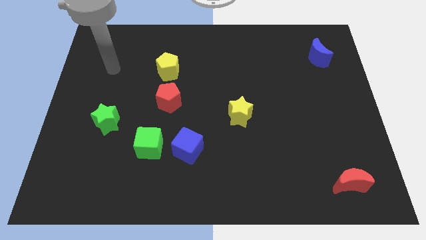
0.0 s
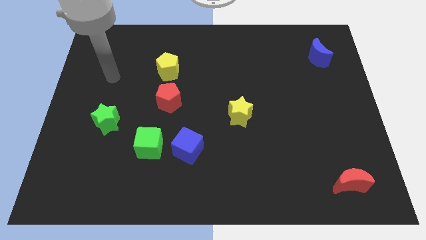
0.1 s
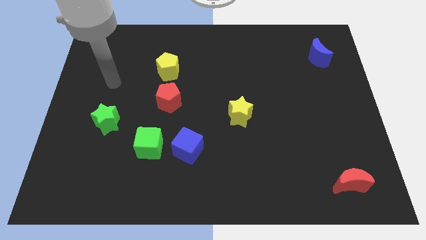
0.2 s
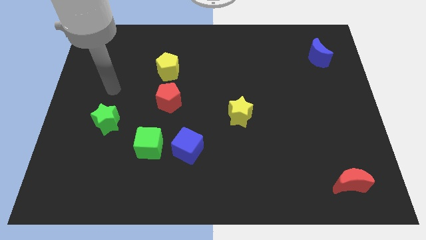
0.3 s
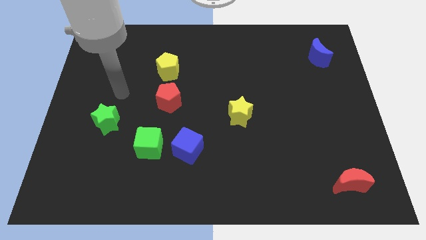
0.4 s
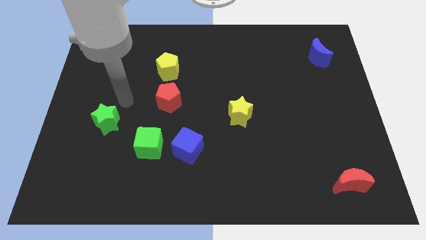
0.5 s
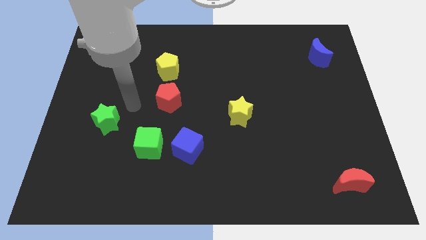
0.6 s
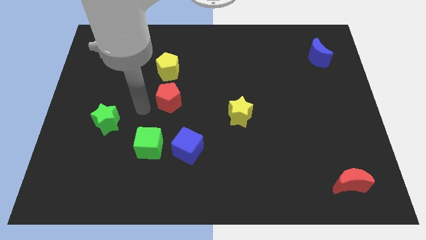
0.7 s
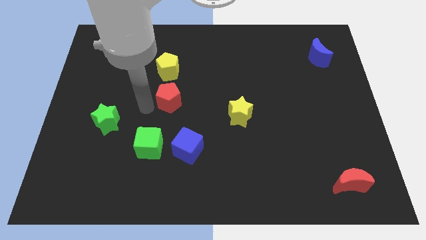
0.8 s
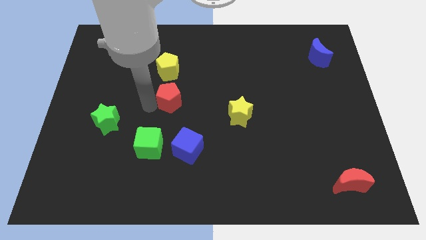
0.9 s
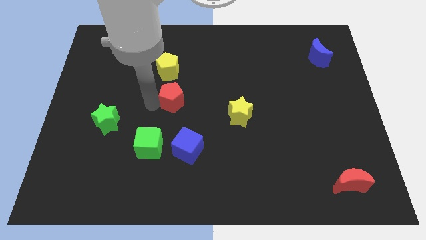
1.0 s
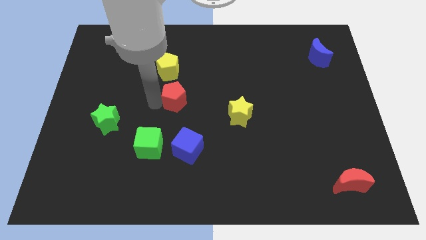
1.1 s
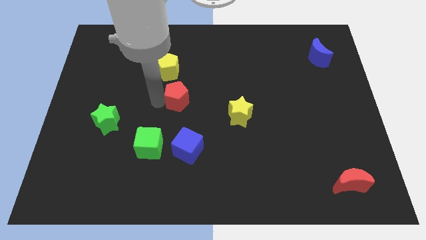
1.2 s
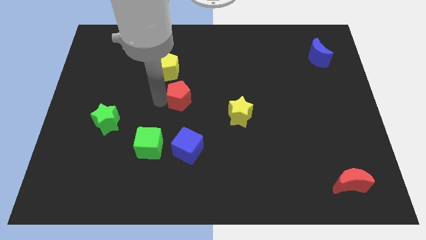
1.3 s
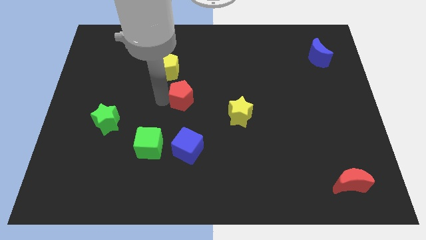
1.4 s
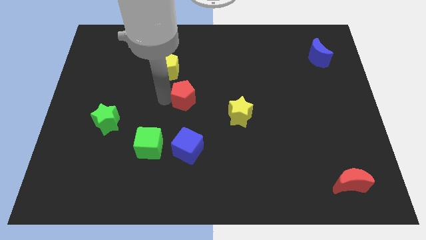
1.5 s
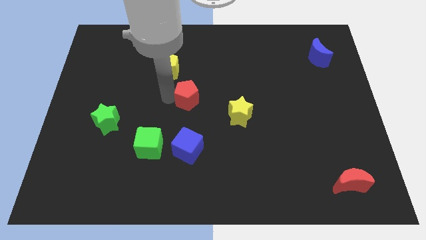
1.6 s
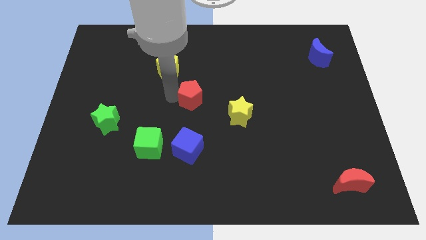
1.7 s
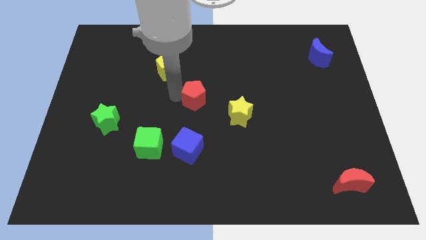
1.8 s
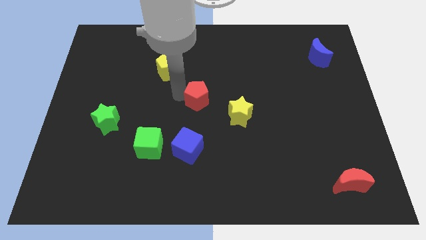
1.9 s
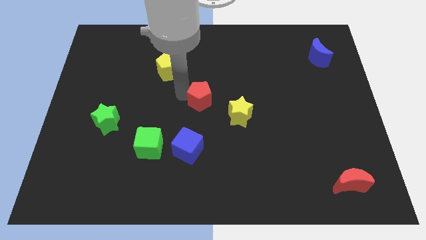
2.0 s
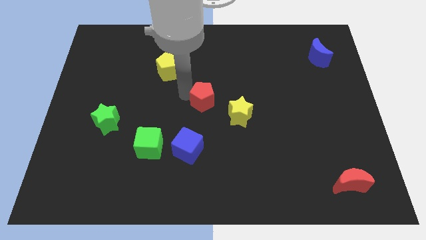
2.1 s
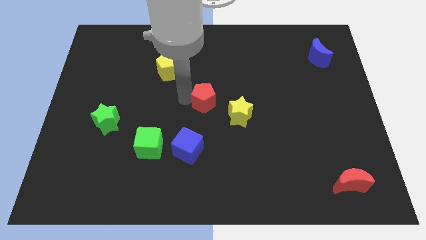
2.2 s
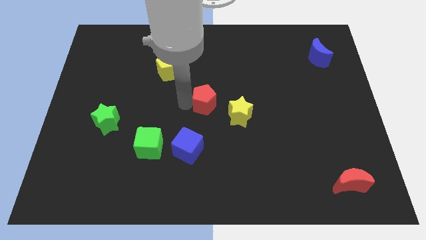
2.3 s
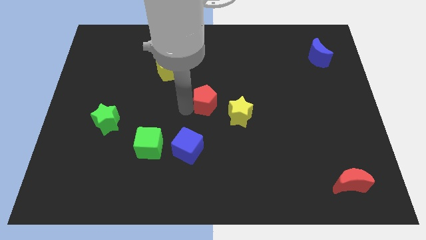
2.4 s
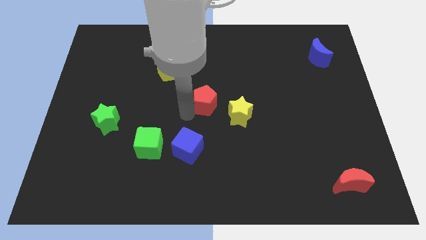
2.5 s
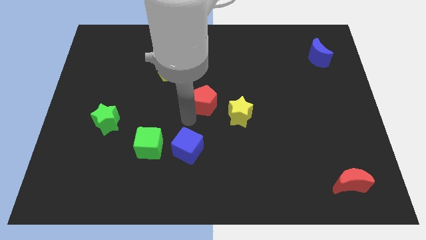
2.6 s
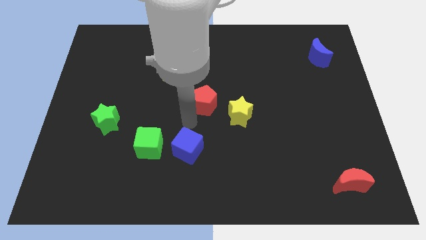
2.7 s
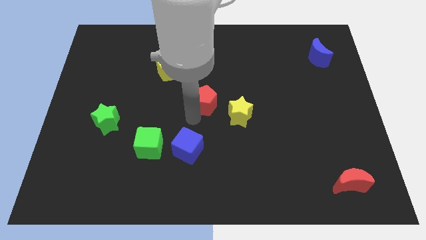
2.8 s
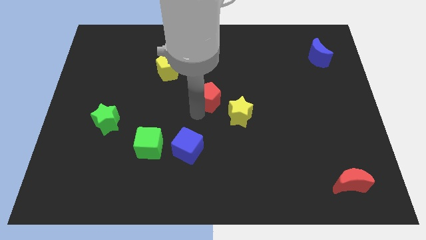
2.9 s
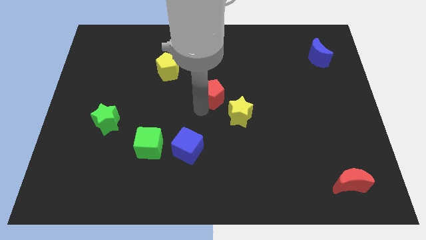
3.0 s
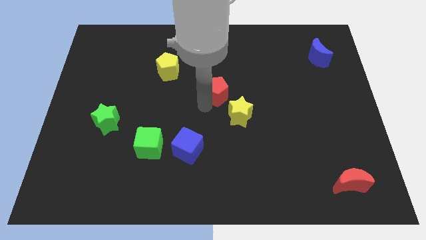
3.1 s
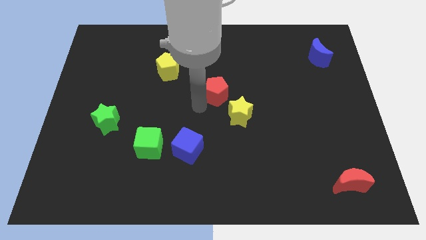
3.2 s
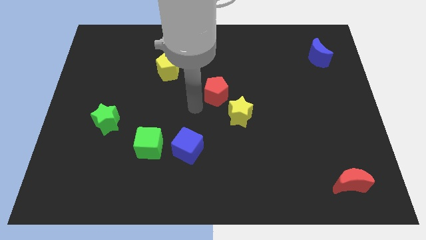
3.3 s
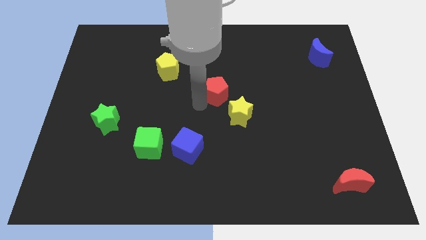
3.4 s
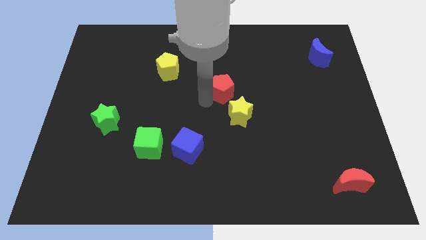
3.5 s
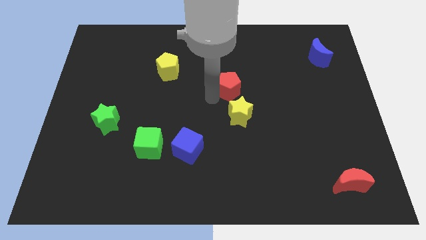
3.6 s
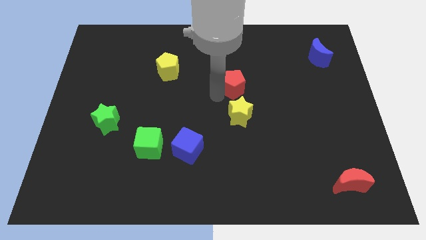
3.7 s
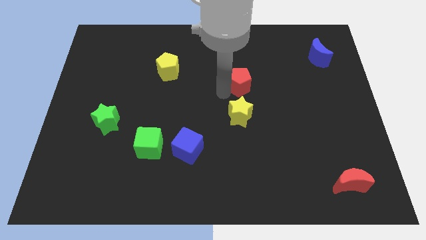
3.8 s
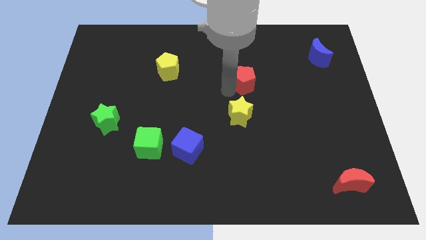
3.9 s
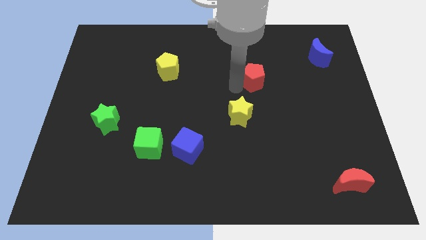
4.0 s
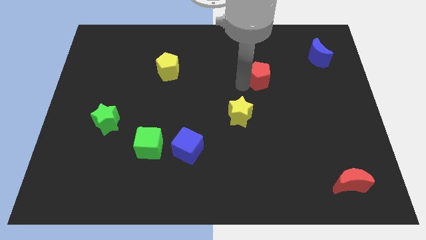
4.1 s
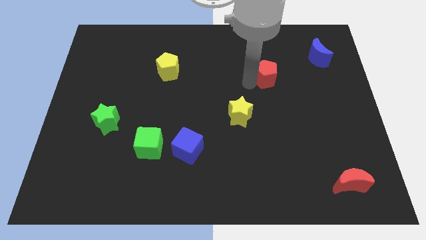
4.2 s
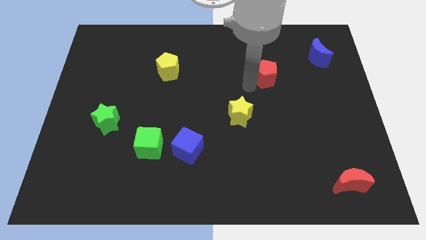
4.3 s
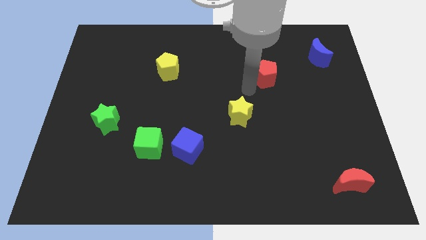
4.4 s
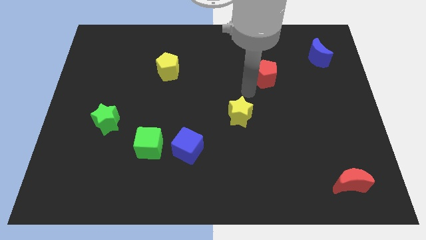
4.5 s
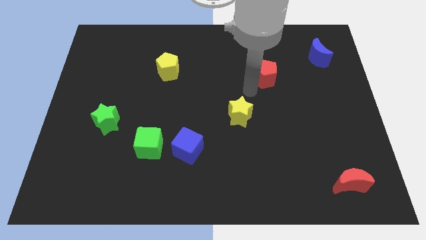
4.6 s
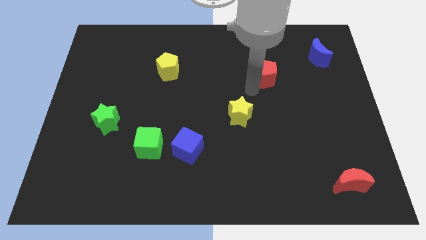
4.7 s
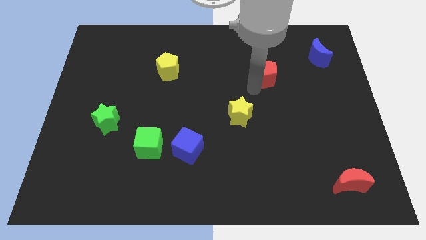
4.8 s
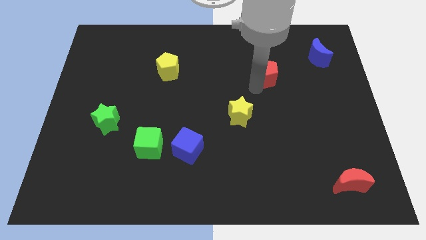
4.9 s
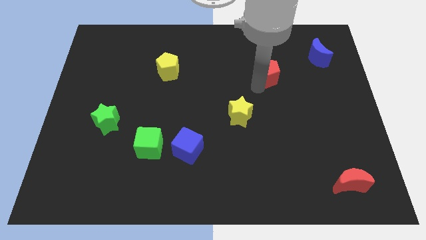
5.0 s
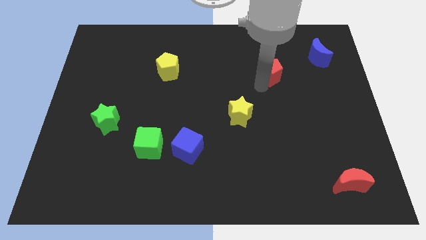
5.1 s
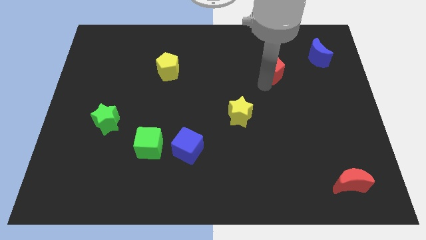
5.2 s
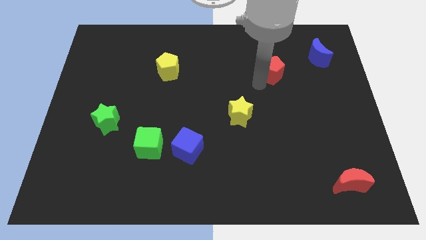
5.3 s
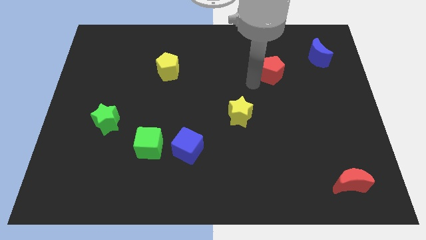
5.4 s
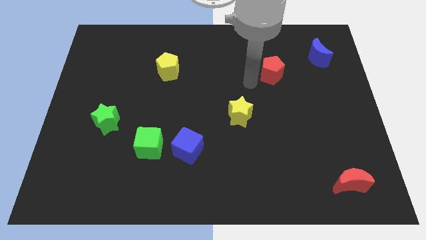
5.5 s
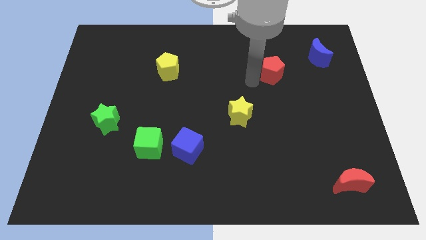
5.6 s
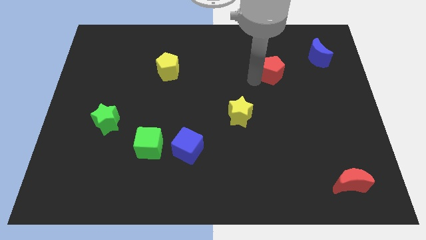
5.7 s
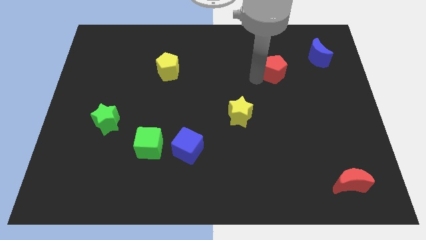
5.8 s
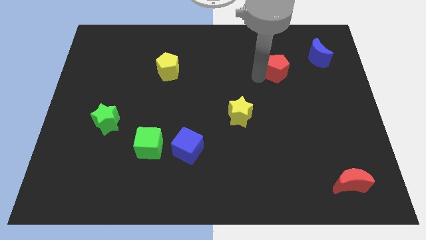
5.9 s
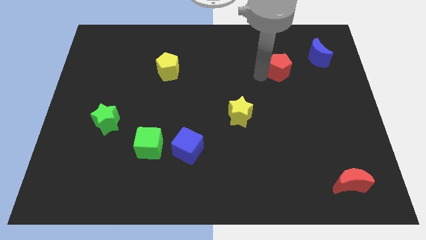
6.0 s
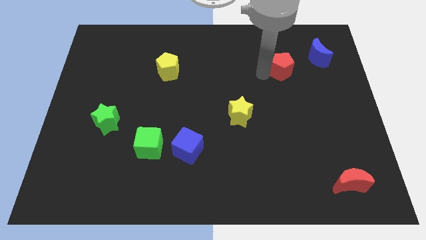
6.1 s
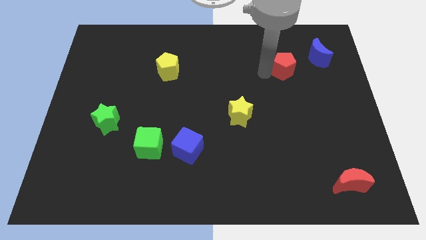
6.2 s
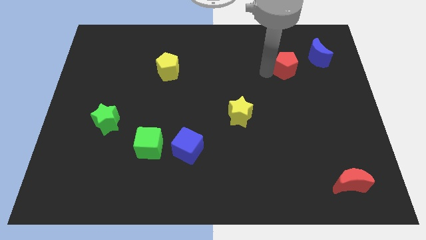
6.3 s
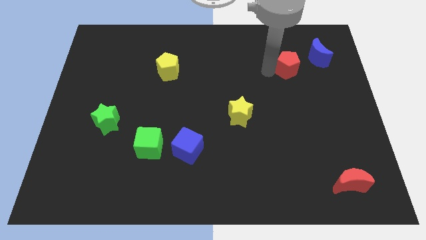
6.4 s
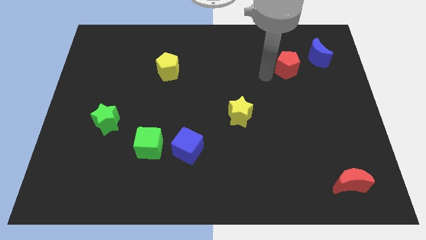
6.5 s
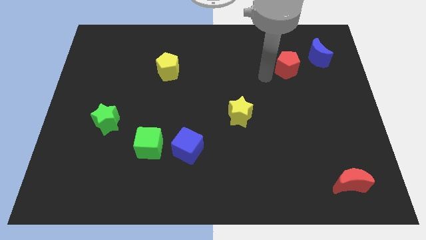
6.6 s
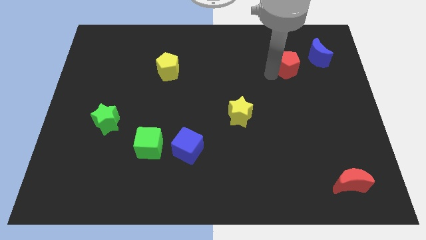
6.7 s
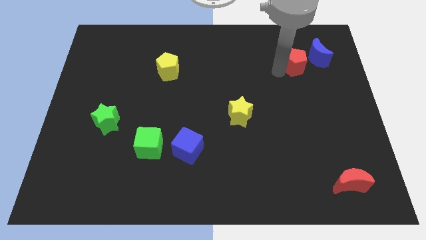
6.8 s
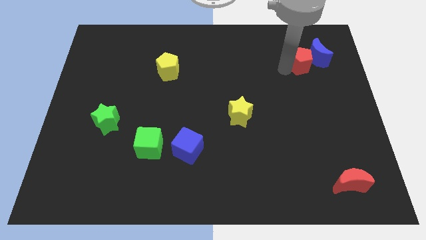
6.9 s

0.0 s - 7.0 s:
move the red pentagon towards the blue moon
